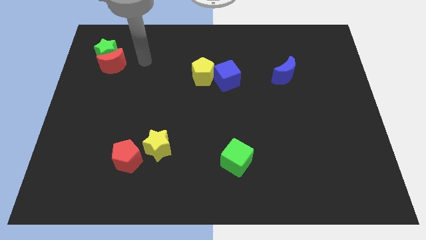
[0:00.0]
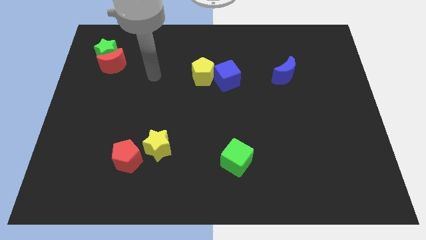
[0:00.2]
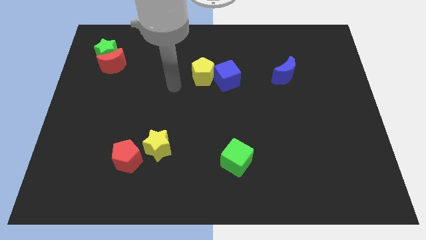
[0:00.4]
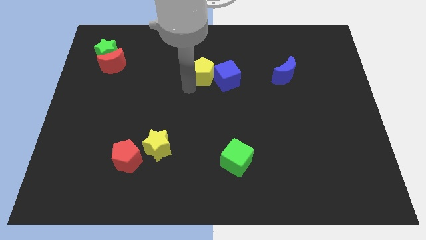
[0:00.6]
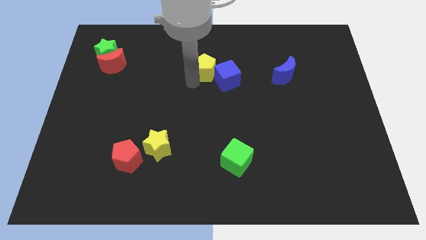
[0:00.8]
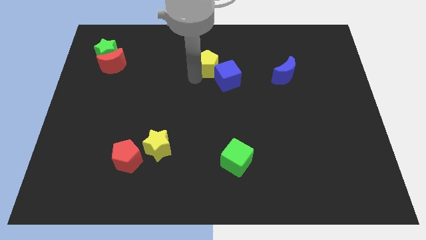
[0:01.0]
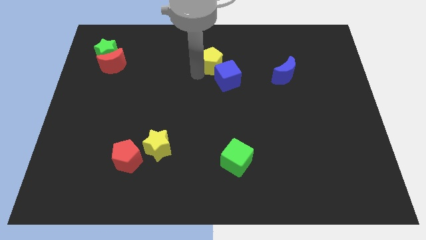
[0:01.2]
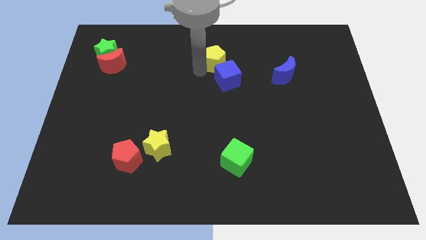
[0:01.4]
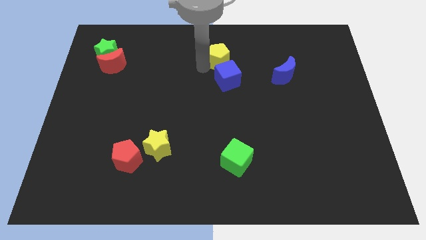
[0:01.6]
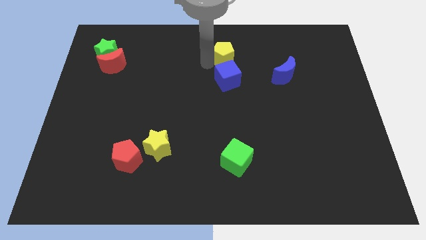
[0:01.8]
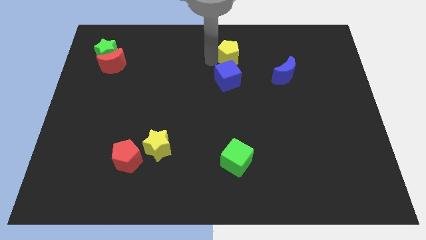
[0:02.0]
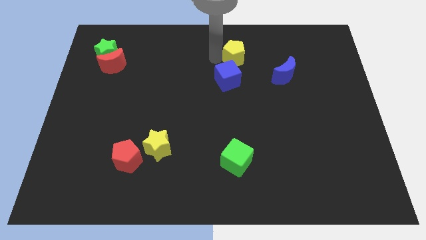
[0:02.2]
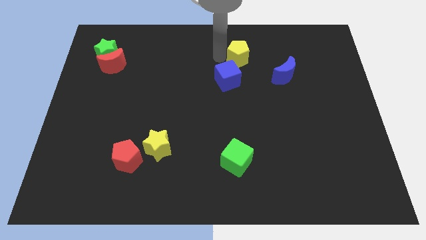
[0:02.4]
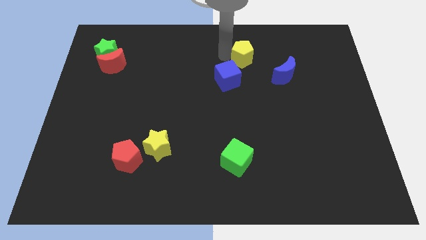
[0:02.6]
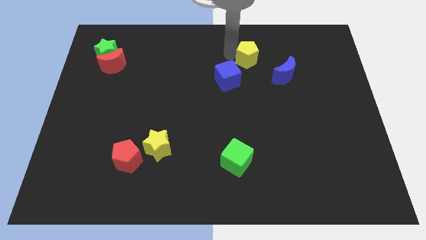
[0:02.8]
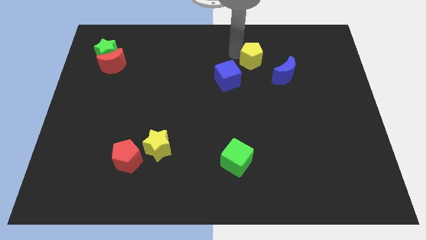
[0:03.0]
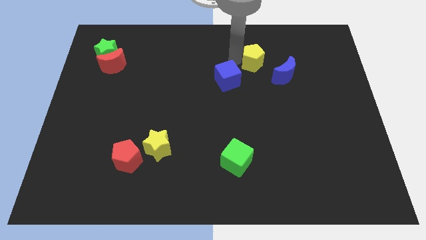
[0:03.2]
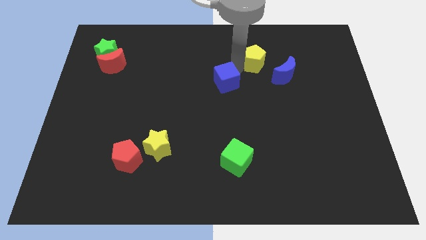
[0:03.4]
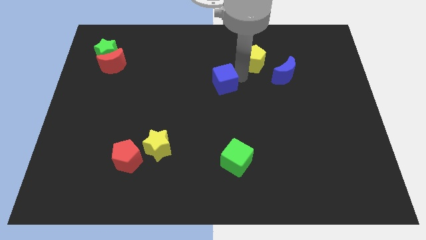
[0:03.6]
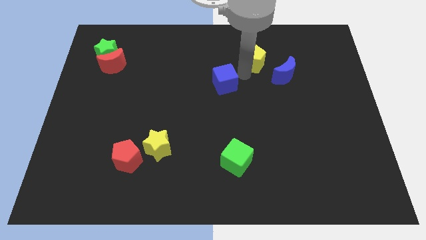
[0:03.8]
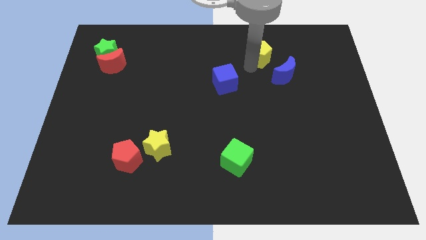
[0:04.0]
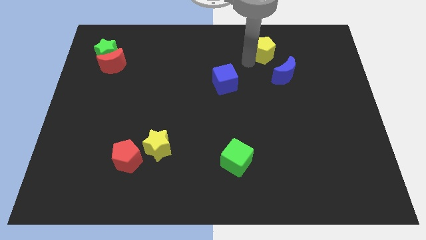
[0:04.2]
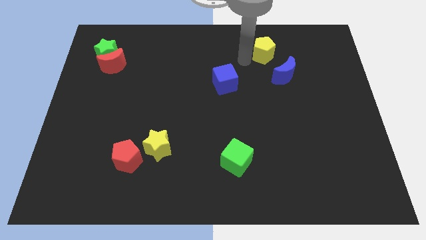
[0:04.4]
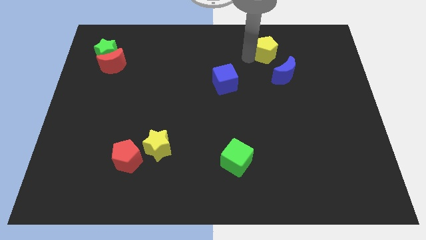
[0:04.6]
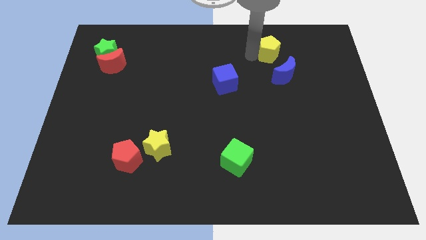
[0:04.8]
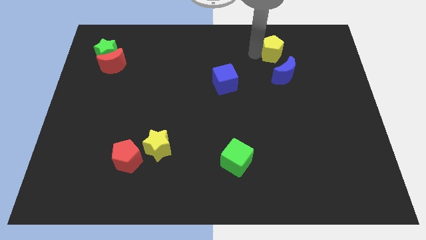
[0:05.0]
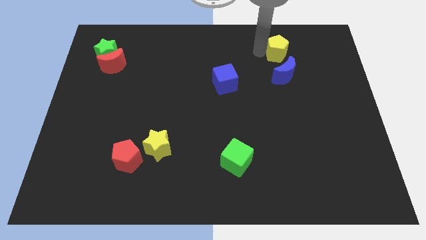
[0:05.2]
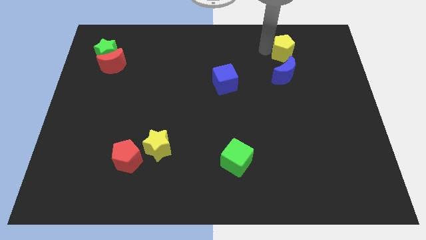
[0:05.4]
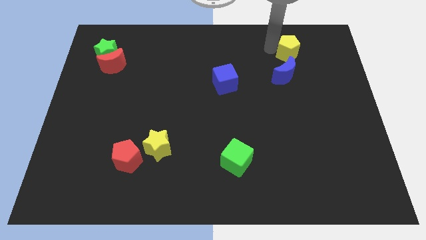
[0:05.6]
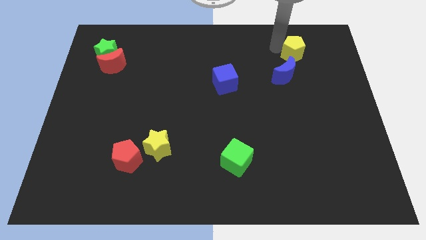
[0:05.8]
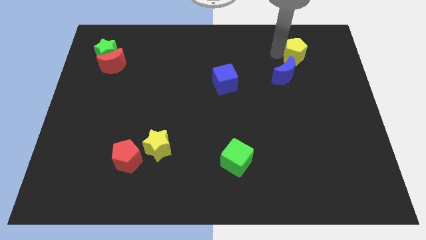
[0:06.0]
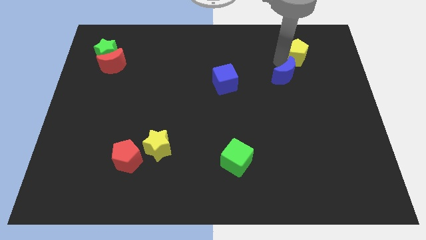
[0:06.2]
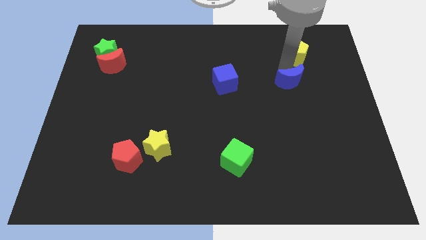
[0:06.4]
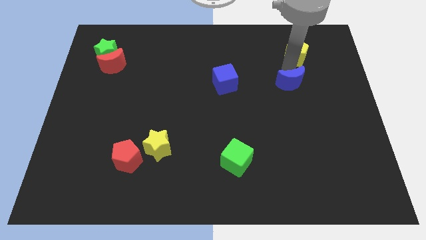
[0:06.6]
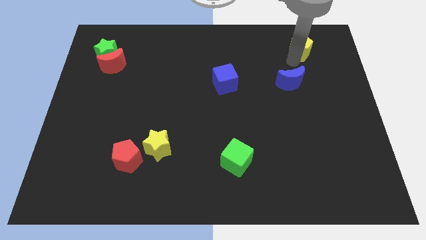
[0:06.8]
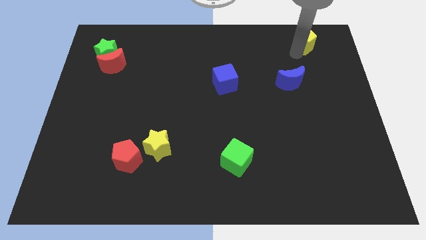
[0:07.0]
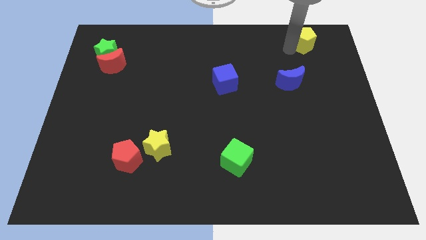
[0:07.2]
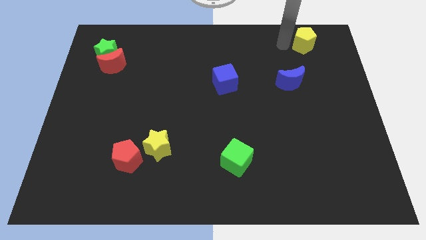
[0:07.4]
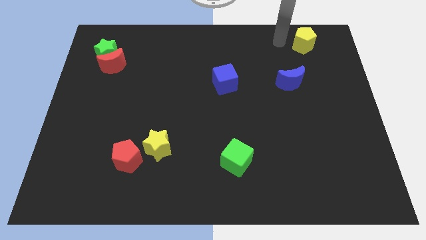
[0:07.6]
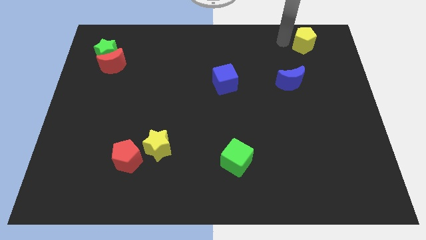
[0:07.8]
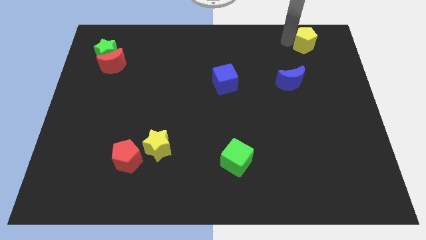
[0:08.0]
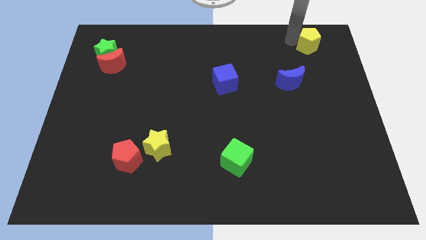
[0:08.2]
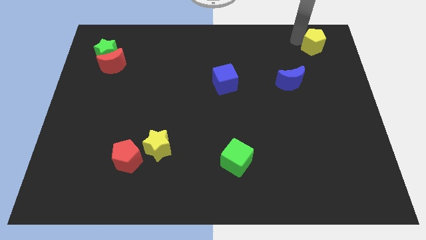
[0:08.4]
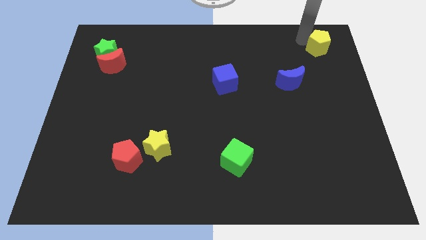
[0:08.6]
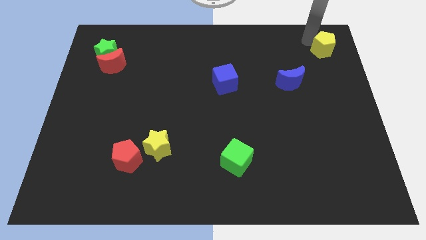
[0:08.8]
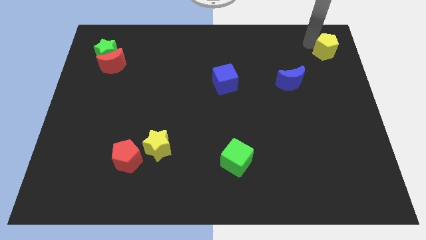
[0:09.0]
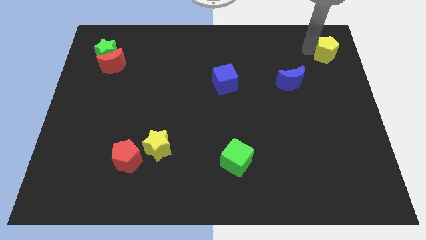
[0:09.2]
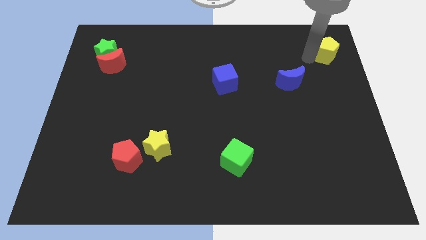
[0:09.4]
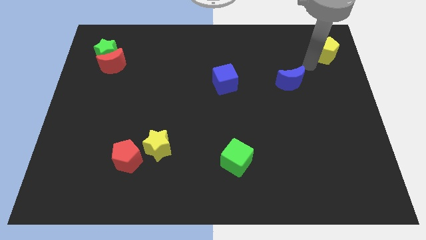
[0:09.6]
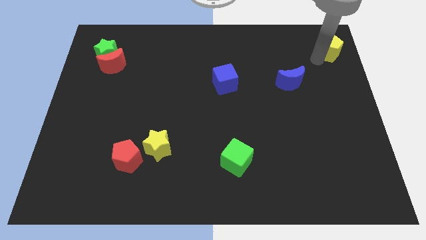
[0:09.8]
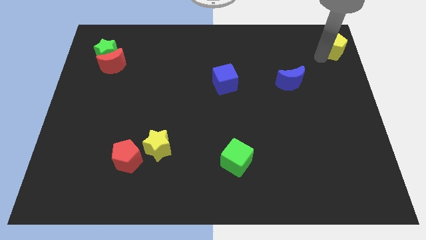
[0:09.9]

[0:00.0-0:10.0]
push the yellow pentagon to the upper right corner

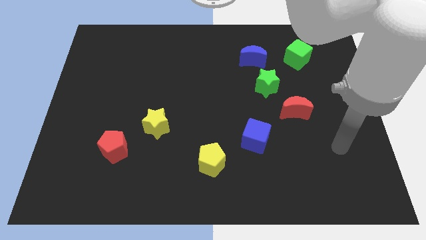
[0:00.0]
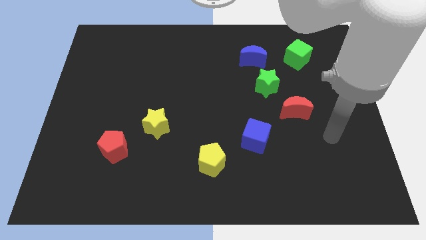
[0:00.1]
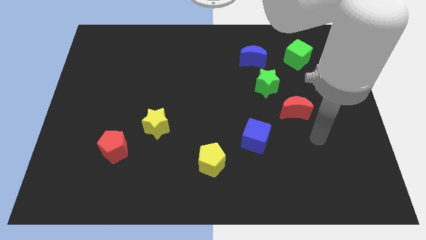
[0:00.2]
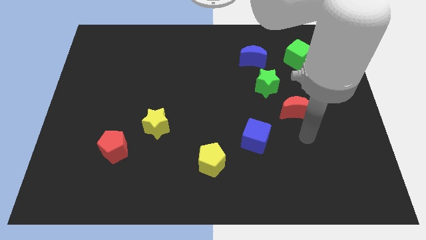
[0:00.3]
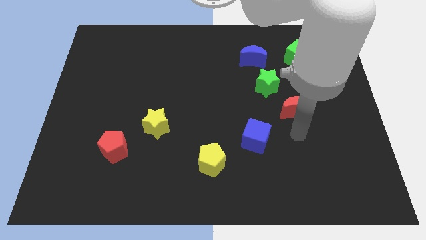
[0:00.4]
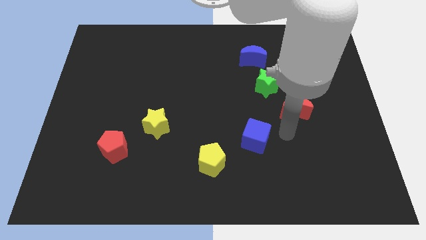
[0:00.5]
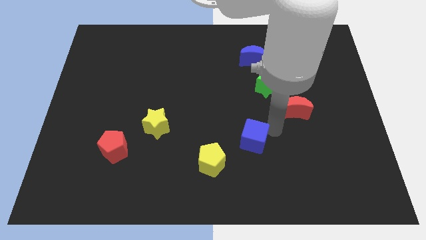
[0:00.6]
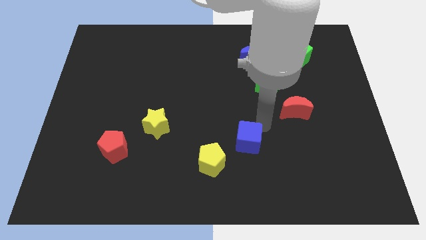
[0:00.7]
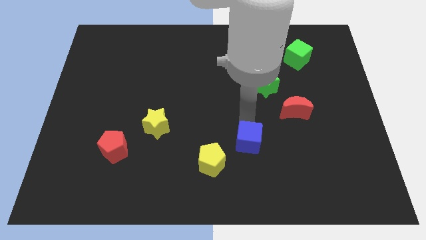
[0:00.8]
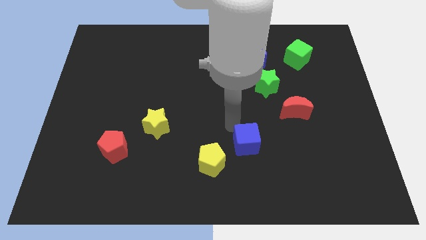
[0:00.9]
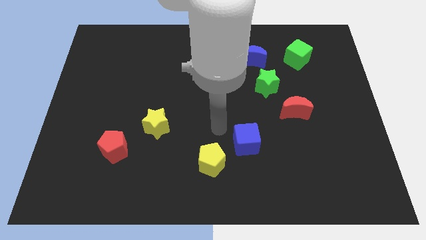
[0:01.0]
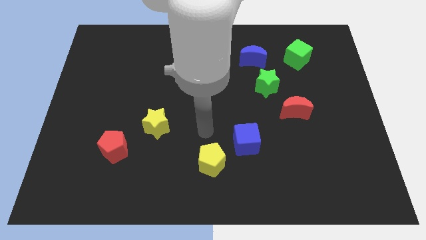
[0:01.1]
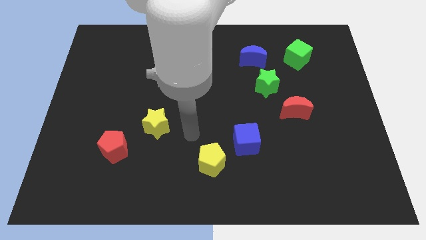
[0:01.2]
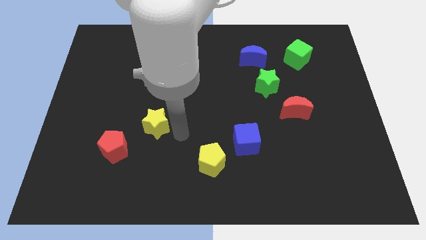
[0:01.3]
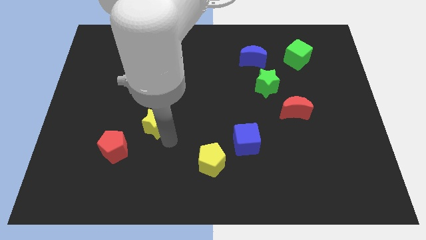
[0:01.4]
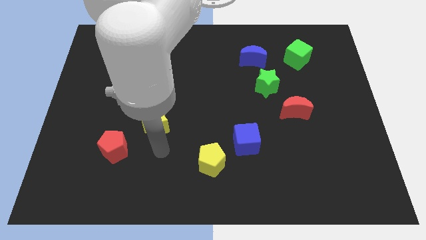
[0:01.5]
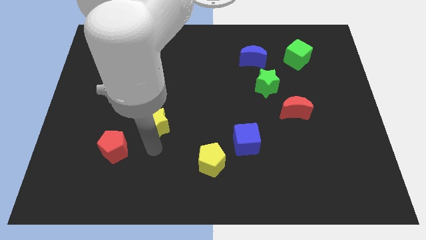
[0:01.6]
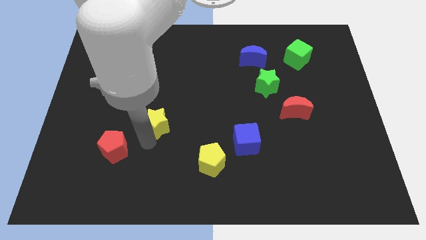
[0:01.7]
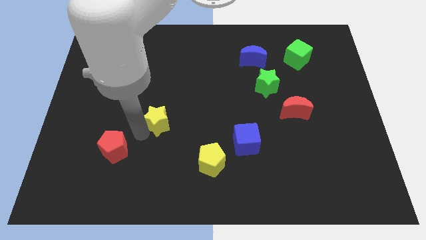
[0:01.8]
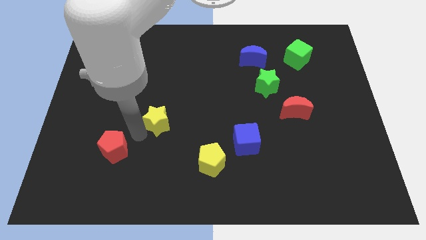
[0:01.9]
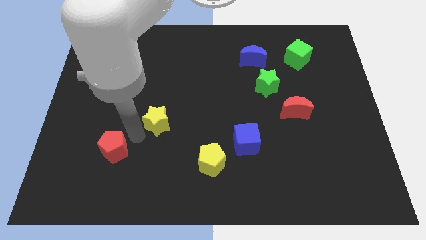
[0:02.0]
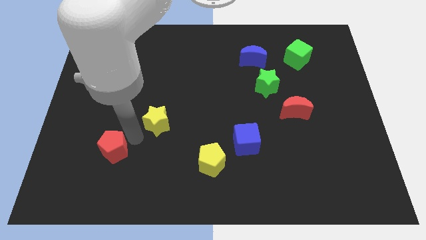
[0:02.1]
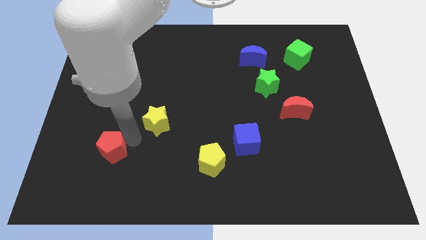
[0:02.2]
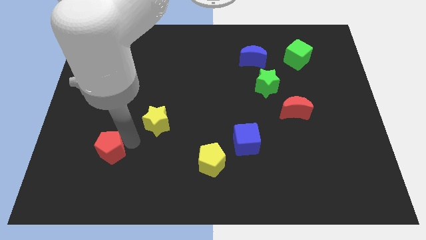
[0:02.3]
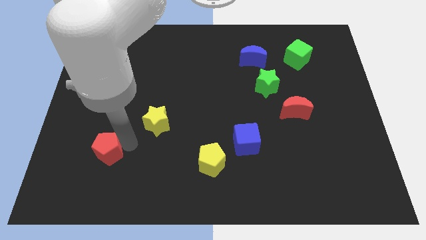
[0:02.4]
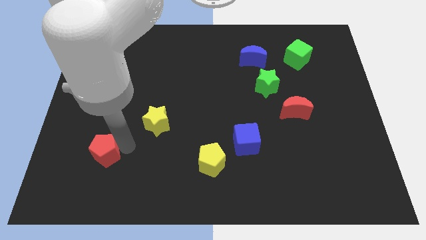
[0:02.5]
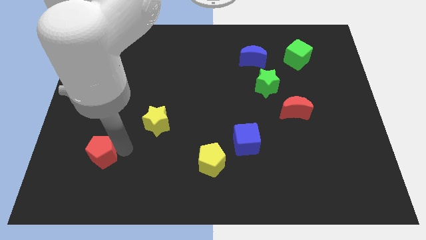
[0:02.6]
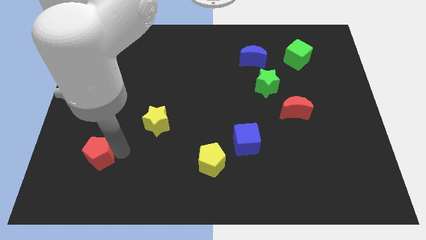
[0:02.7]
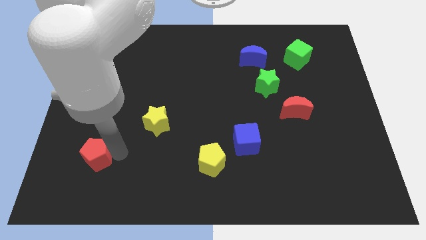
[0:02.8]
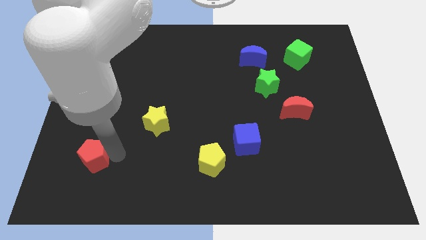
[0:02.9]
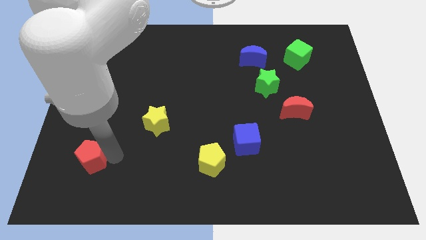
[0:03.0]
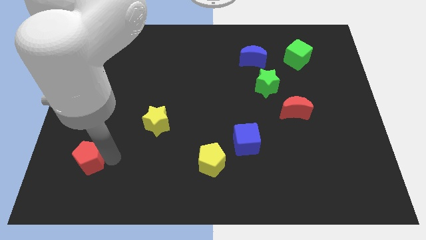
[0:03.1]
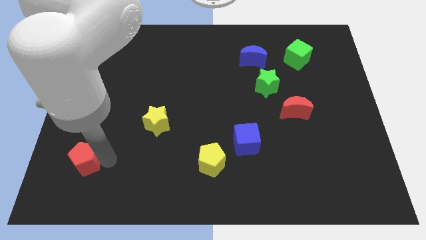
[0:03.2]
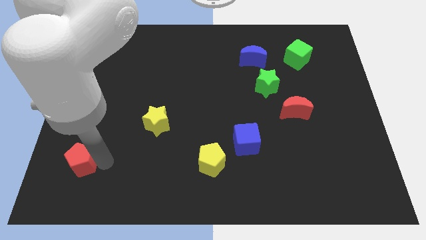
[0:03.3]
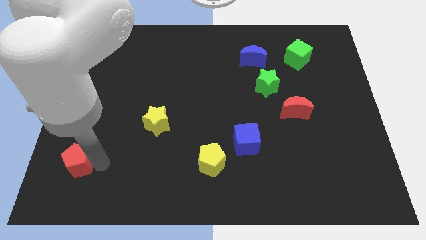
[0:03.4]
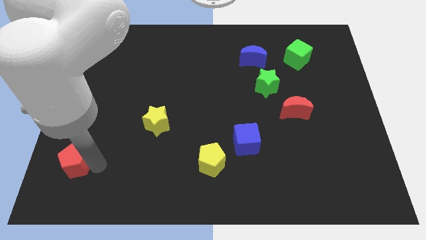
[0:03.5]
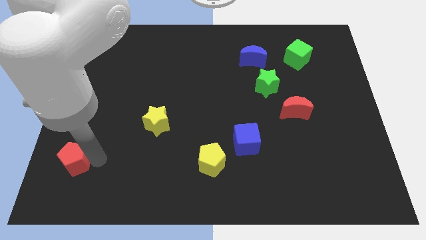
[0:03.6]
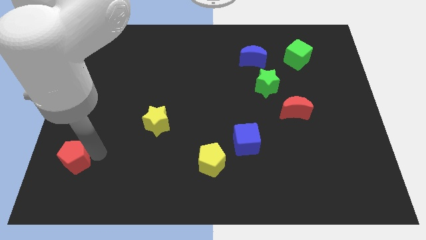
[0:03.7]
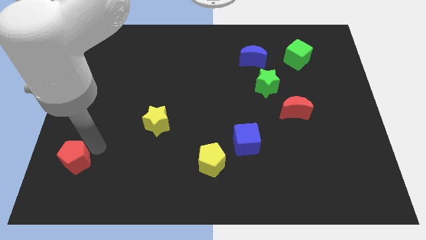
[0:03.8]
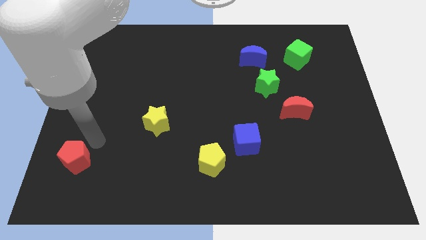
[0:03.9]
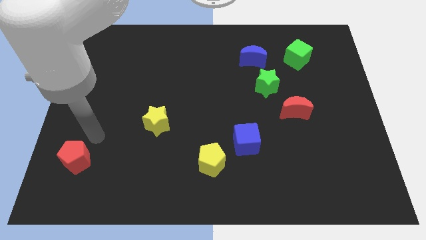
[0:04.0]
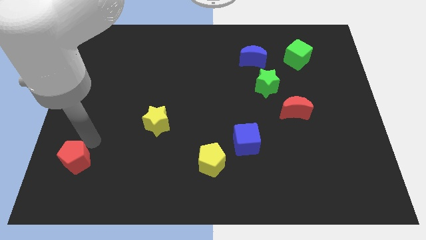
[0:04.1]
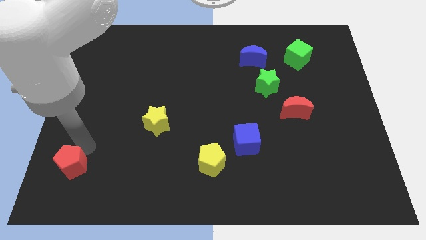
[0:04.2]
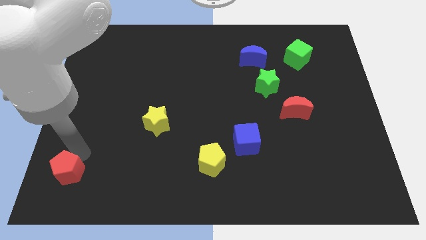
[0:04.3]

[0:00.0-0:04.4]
slide the red pentagon to the bottom left corner
